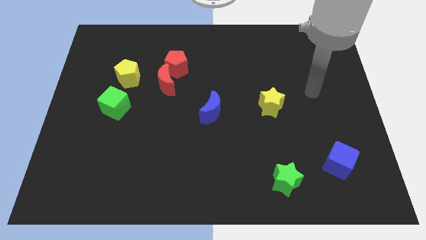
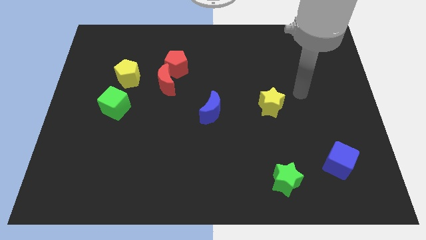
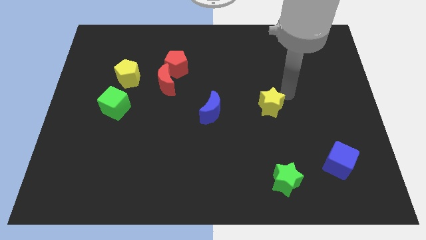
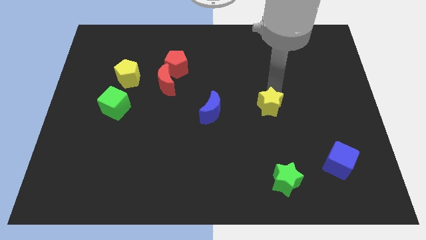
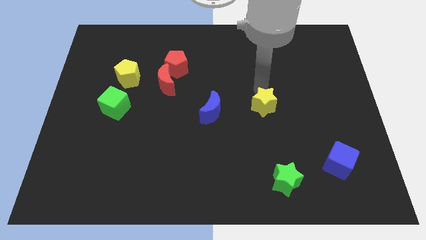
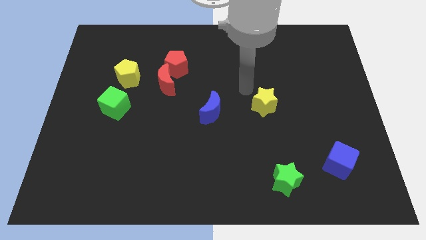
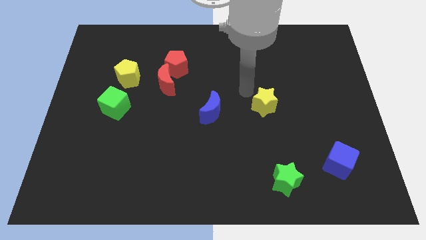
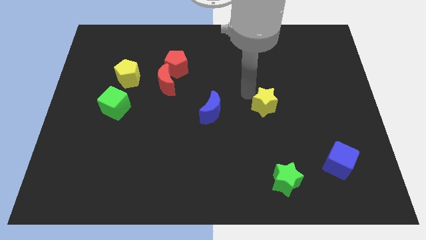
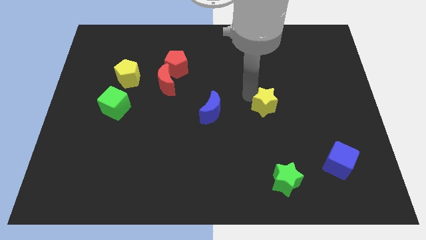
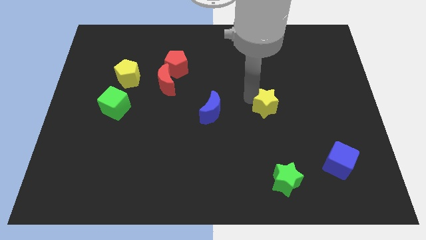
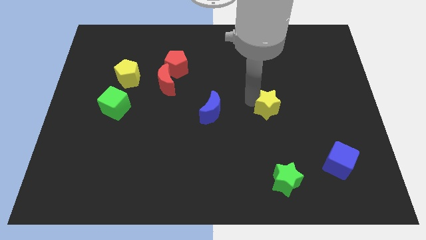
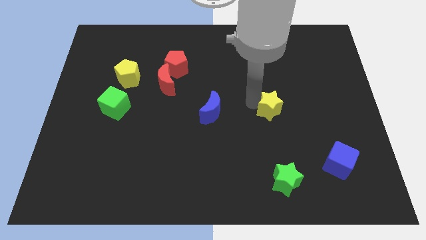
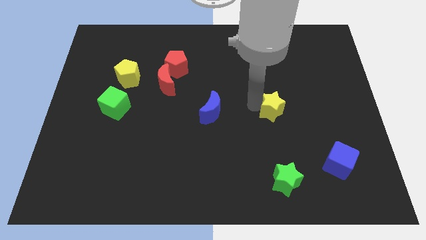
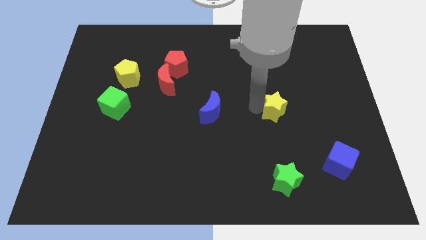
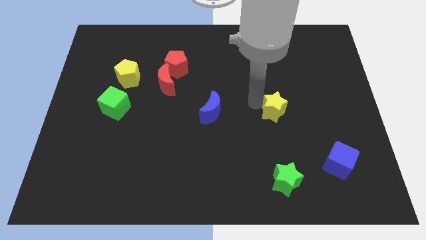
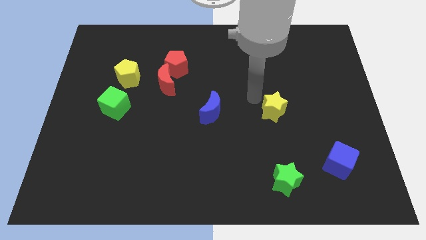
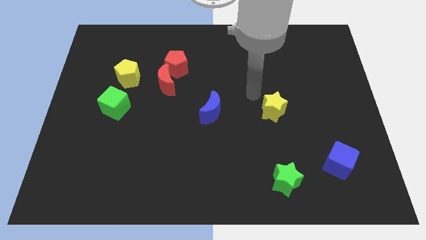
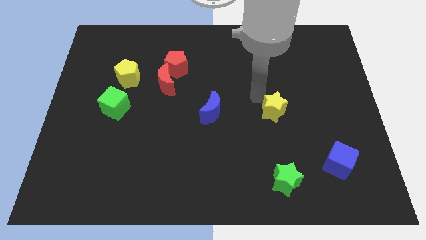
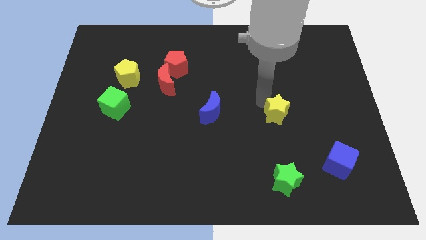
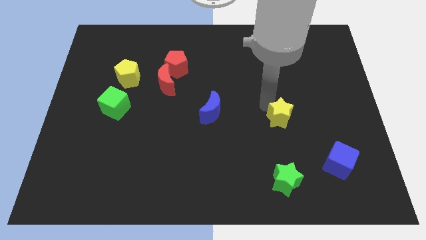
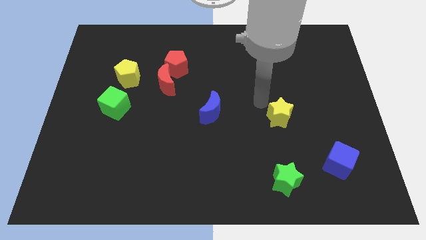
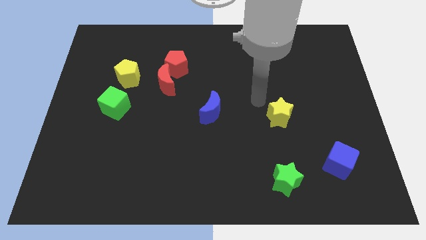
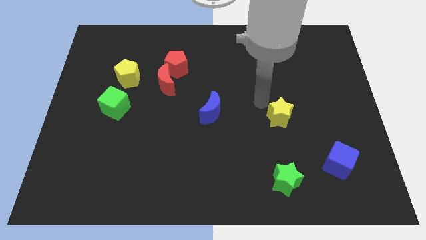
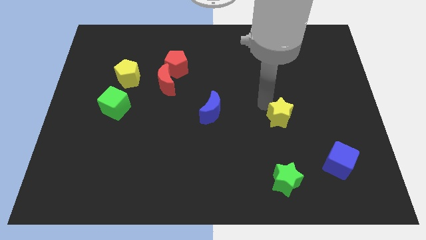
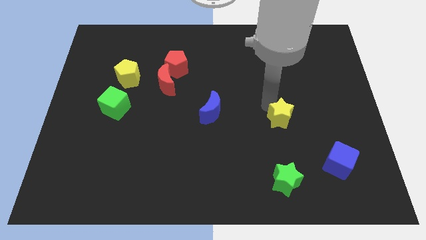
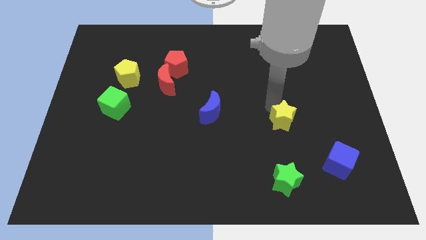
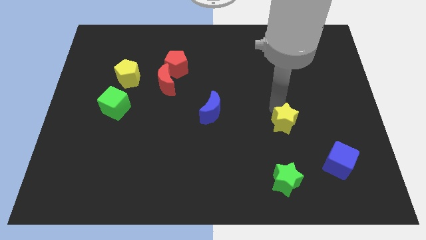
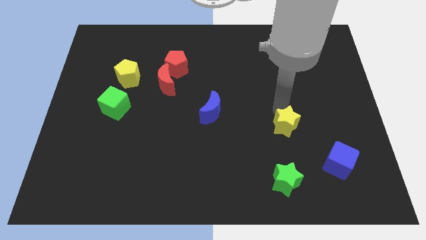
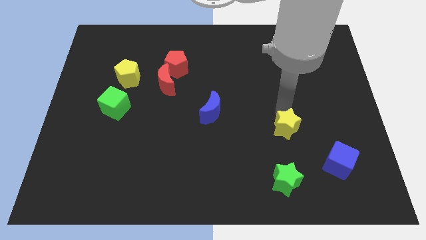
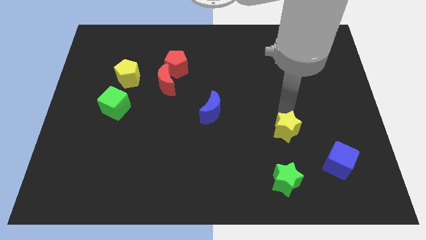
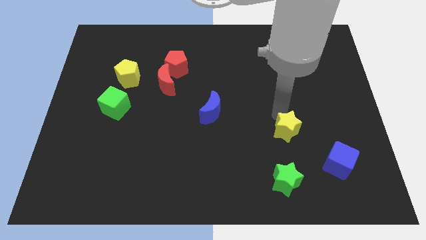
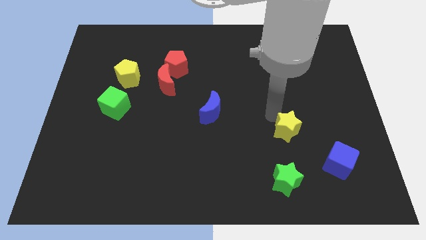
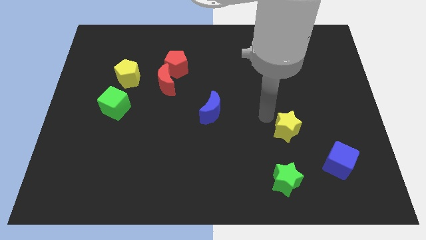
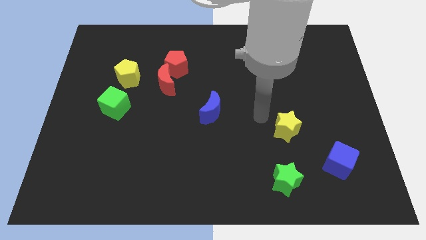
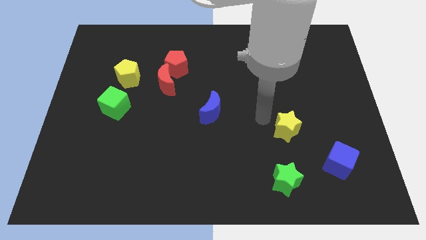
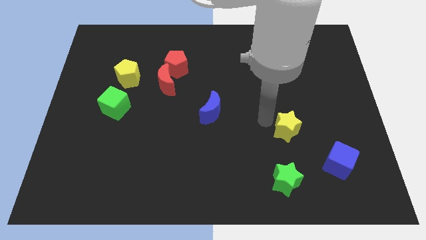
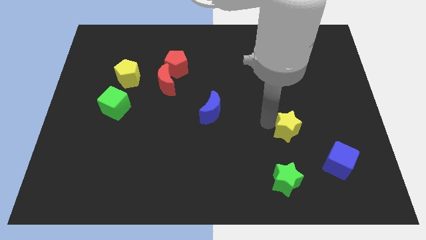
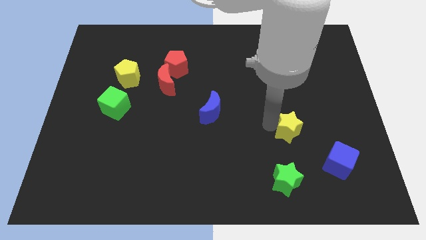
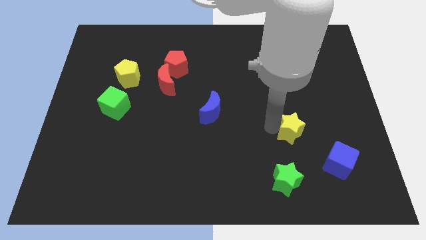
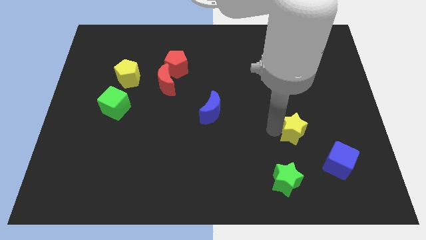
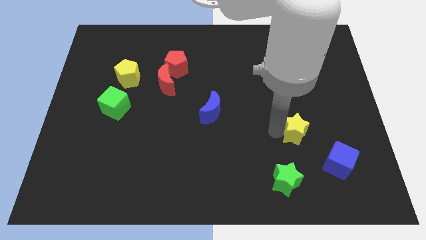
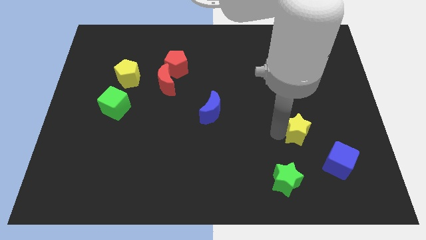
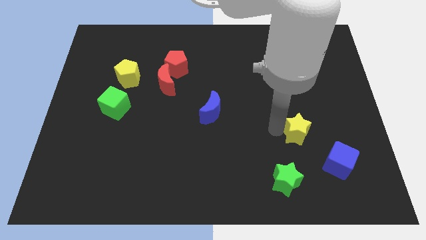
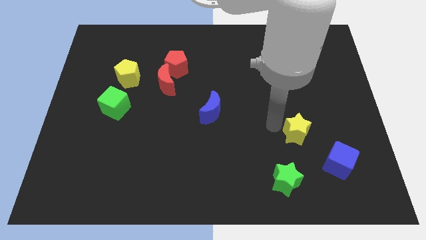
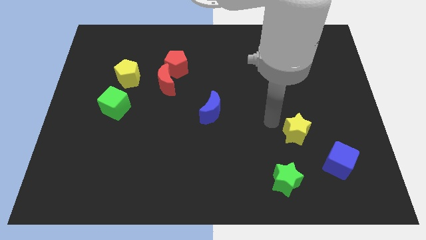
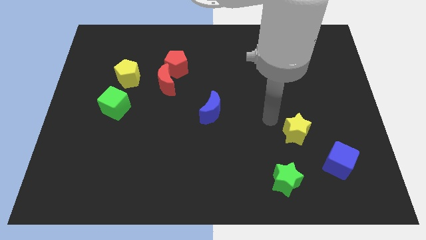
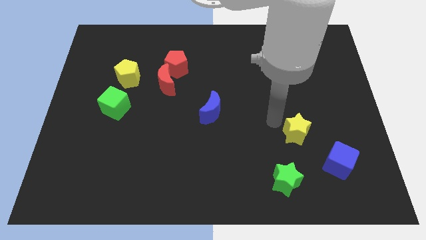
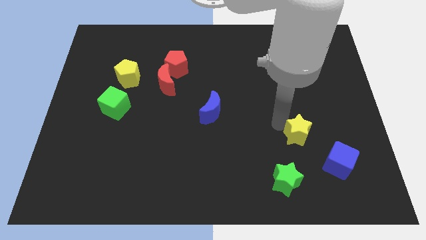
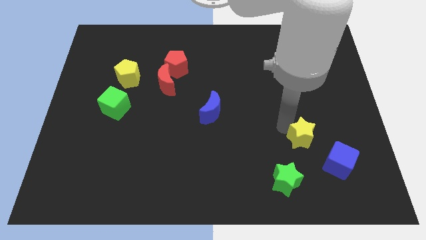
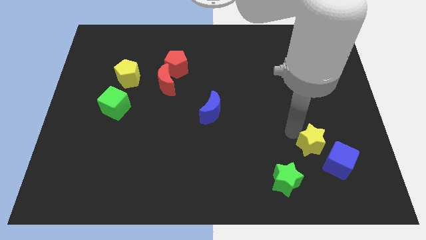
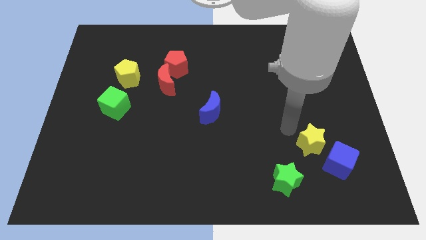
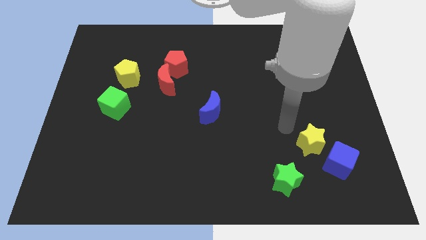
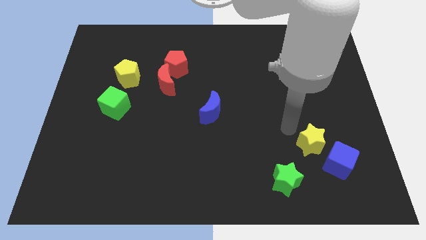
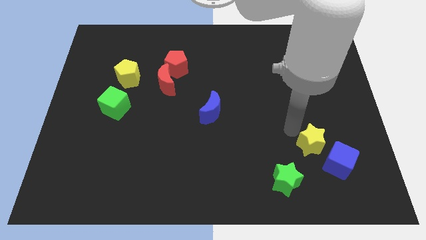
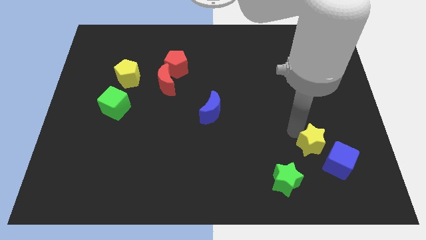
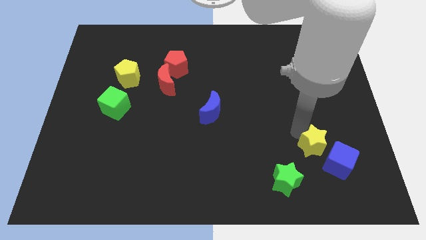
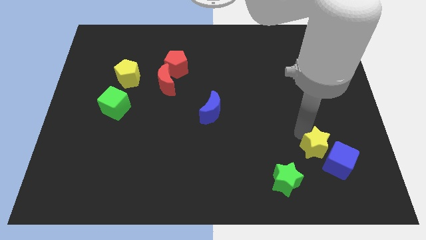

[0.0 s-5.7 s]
push the yellow star next to the blue cube

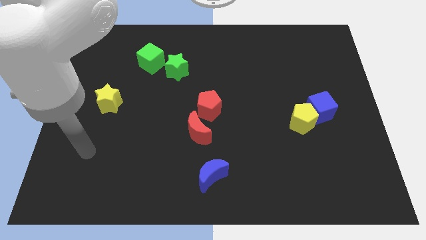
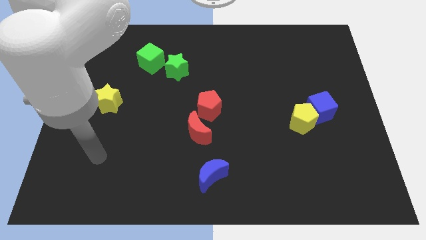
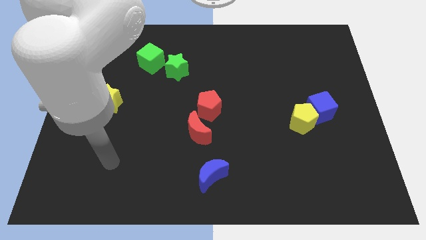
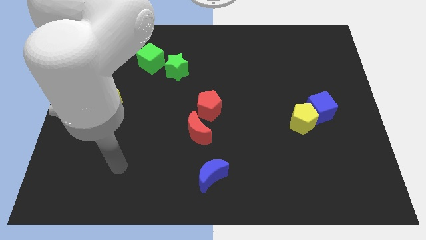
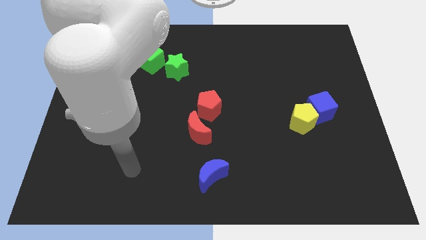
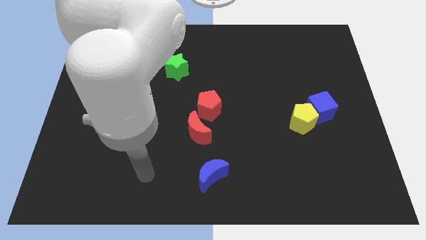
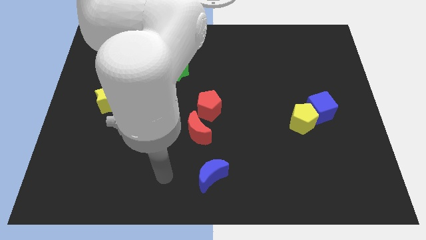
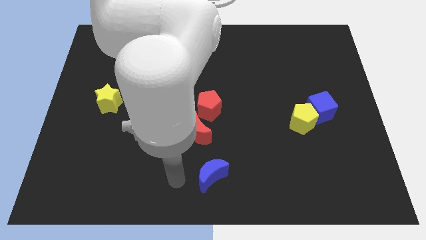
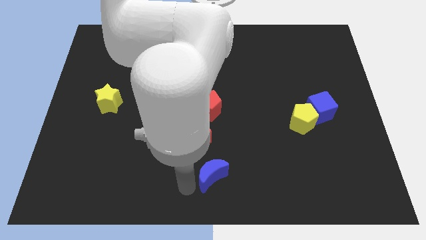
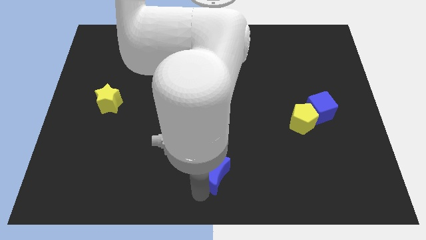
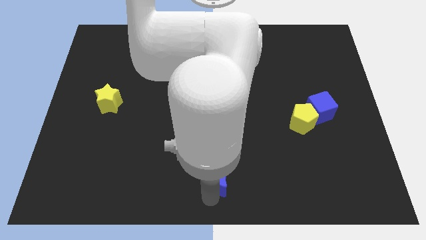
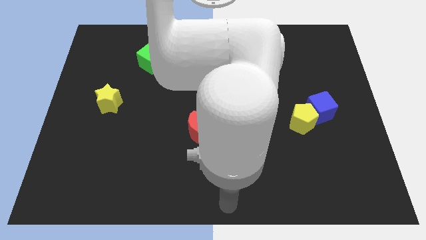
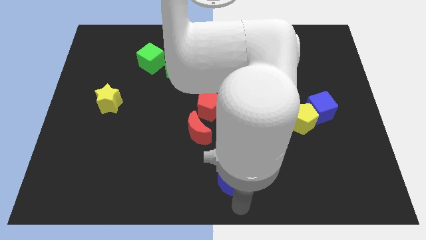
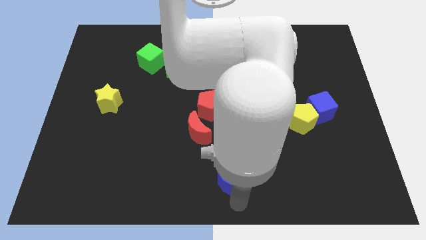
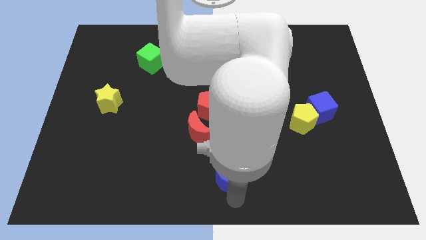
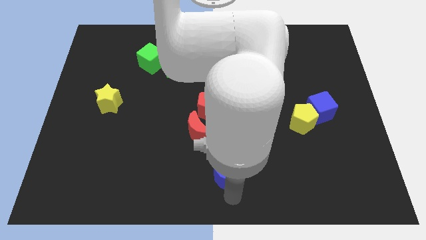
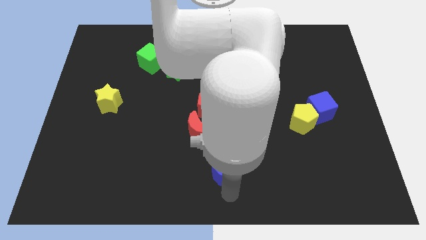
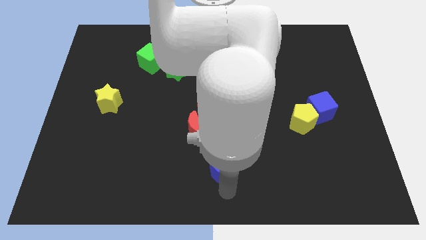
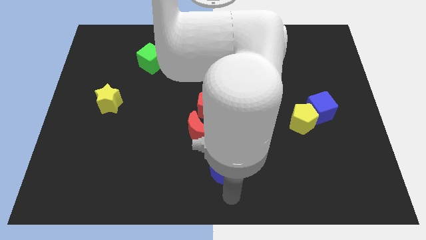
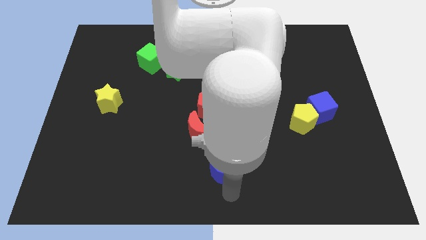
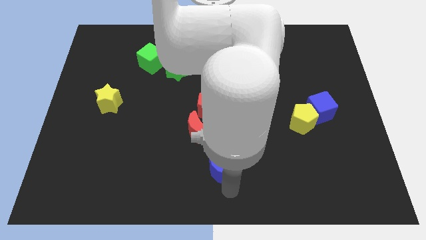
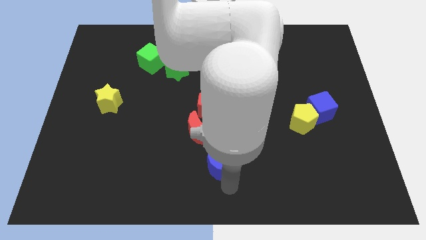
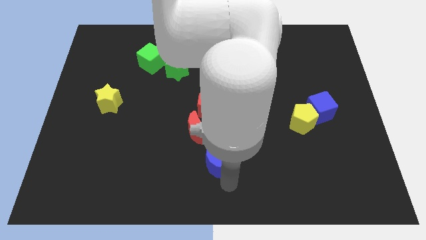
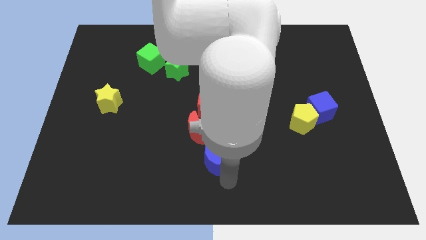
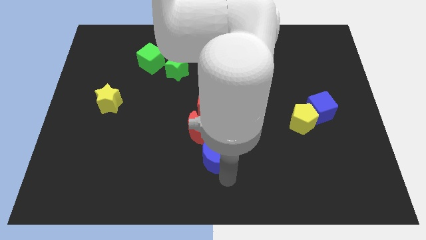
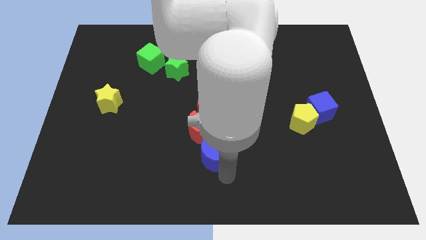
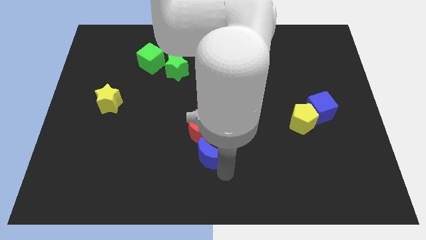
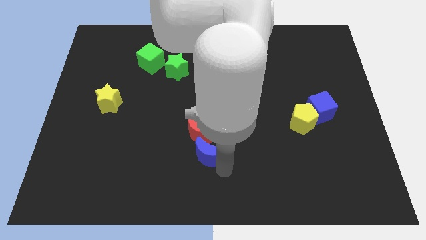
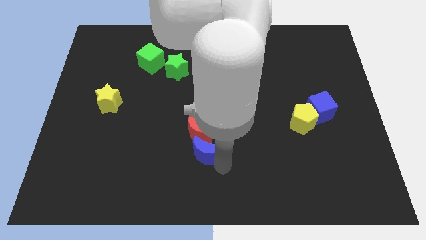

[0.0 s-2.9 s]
push the blue moon next to the red moon
